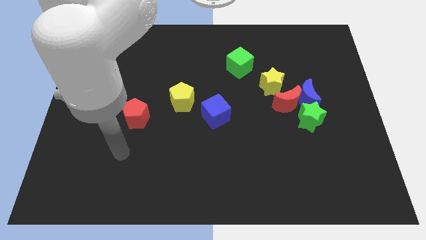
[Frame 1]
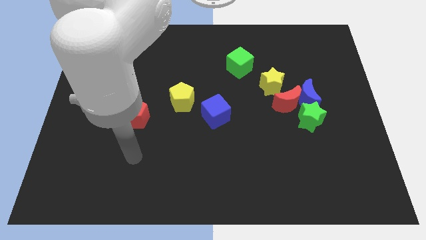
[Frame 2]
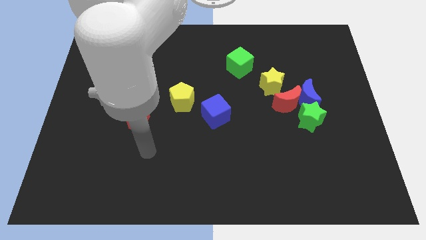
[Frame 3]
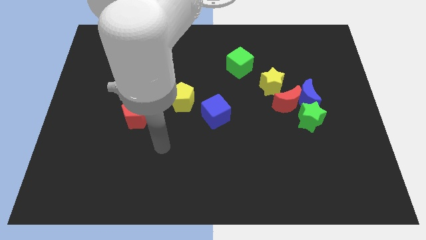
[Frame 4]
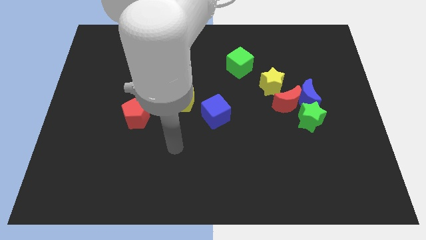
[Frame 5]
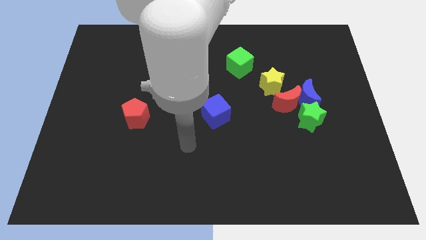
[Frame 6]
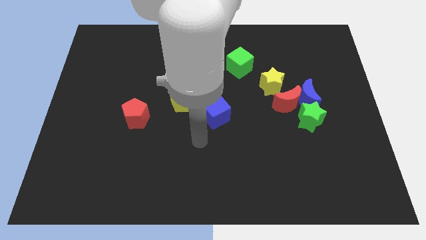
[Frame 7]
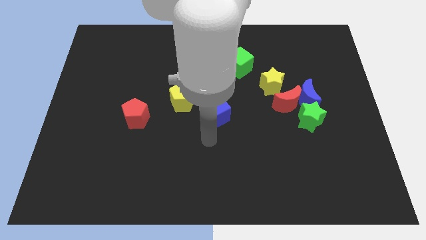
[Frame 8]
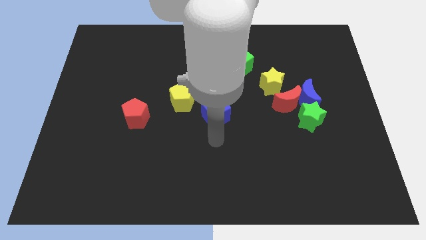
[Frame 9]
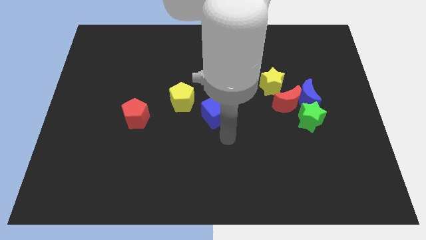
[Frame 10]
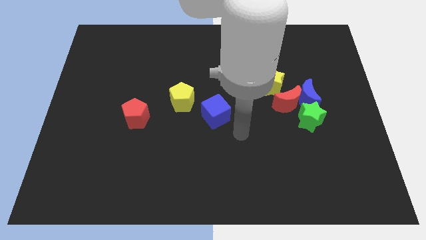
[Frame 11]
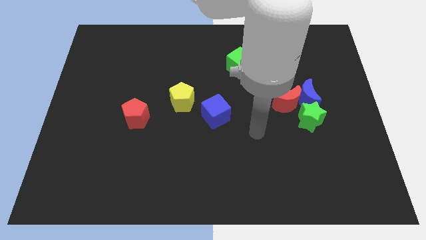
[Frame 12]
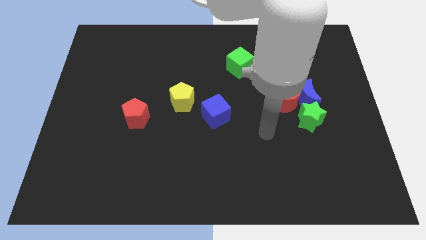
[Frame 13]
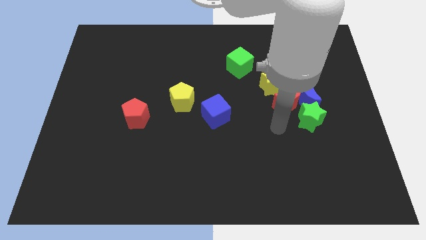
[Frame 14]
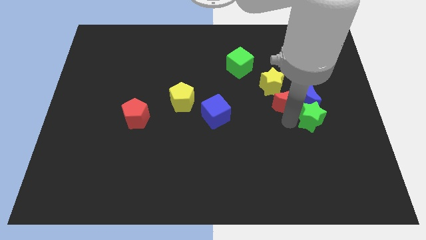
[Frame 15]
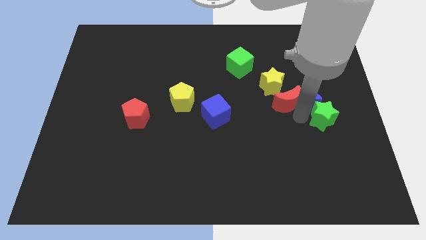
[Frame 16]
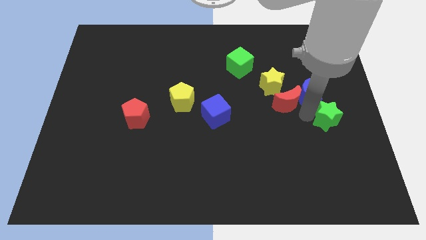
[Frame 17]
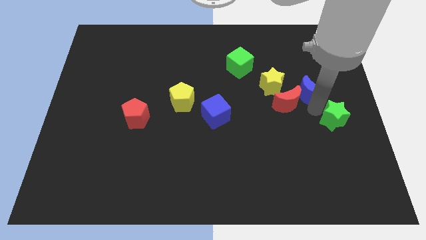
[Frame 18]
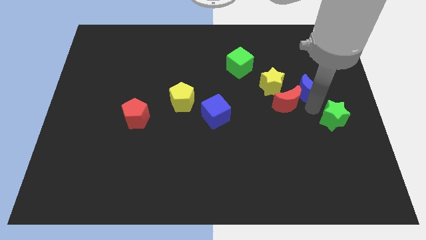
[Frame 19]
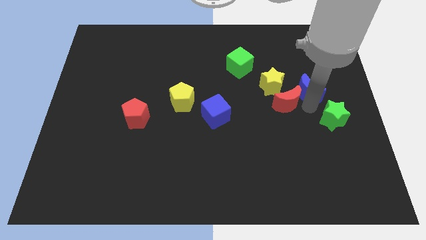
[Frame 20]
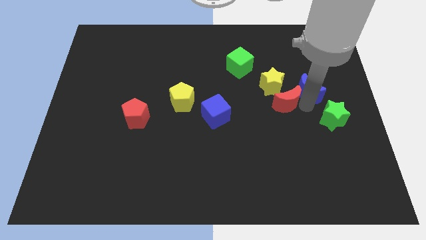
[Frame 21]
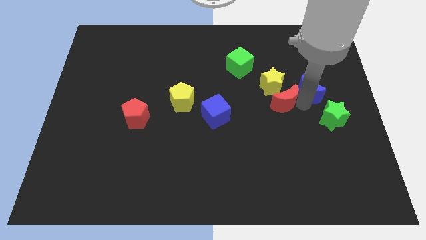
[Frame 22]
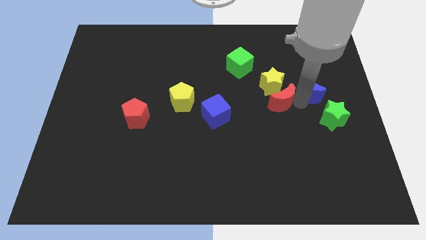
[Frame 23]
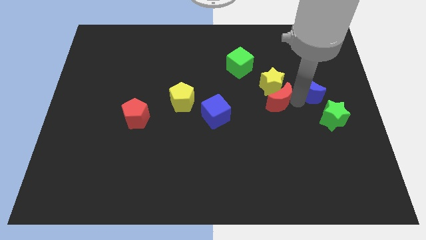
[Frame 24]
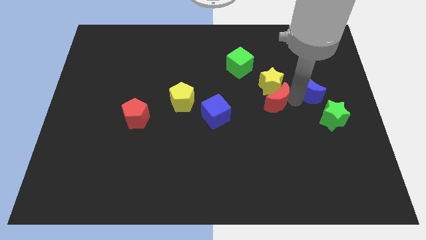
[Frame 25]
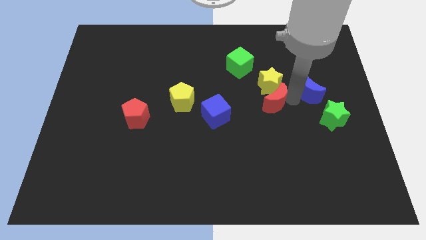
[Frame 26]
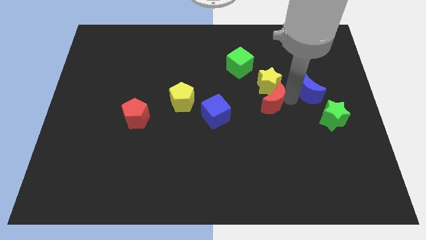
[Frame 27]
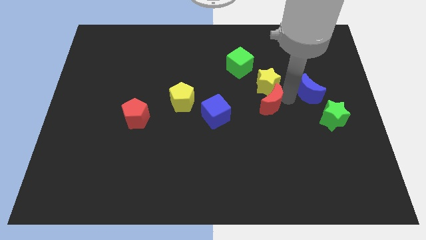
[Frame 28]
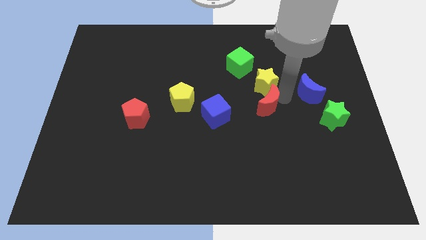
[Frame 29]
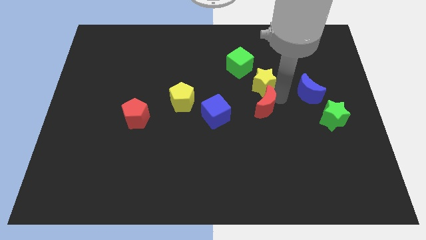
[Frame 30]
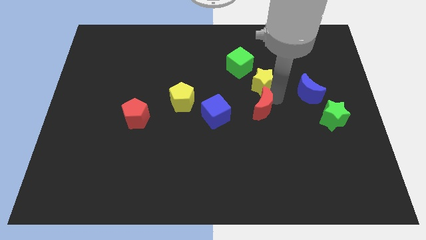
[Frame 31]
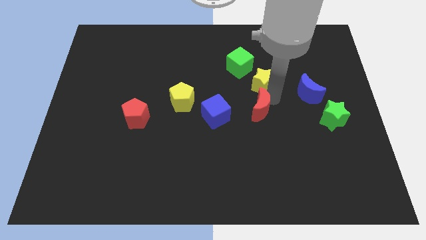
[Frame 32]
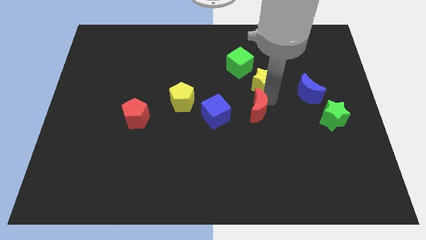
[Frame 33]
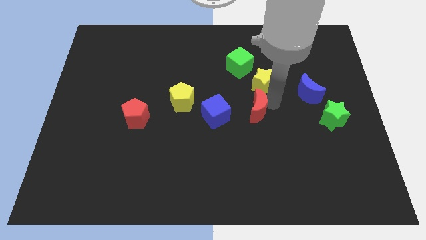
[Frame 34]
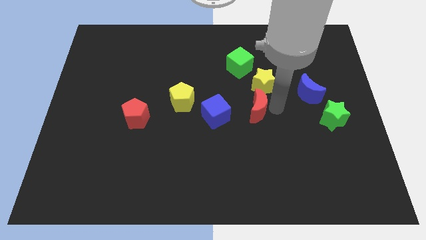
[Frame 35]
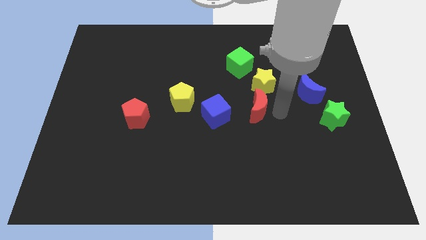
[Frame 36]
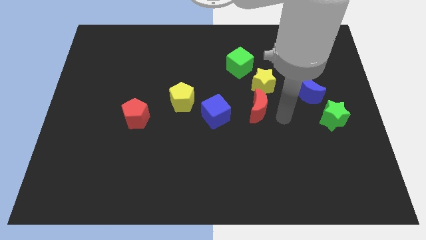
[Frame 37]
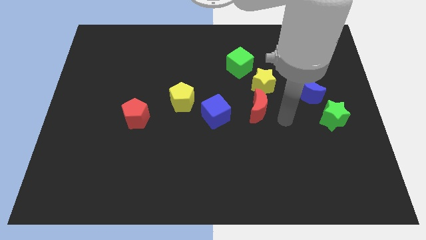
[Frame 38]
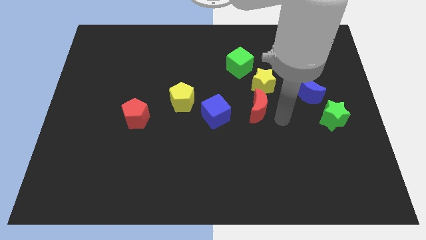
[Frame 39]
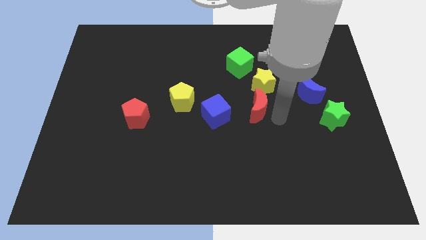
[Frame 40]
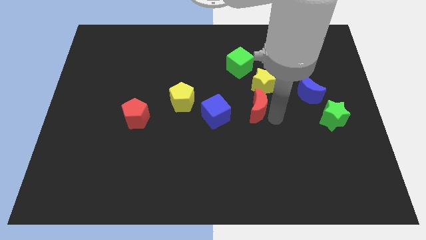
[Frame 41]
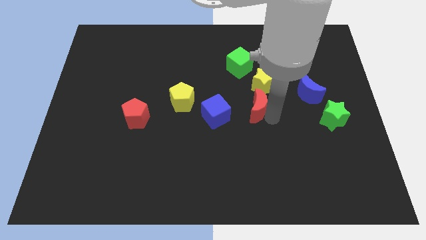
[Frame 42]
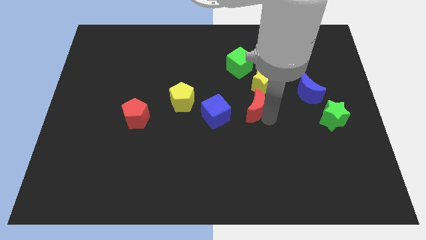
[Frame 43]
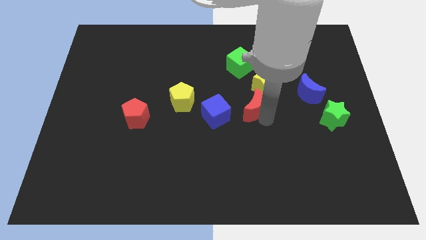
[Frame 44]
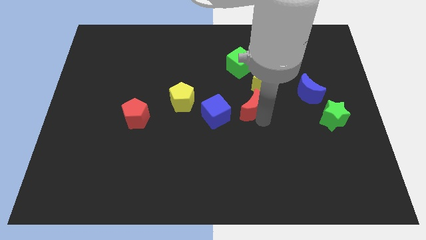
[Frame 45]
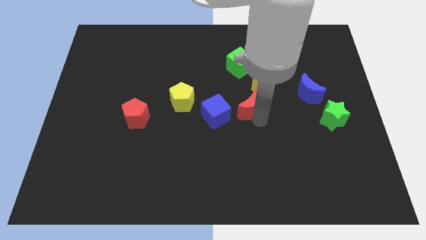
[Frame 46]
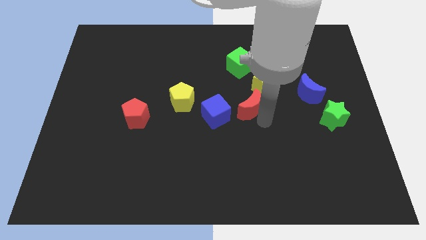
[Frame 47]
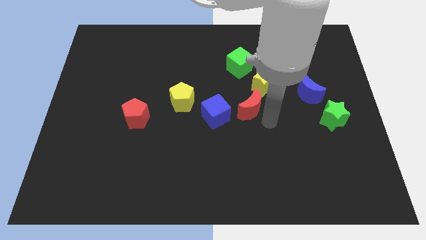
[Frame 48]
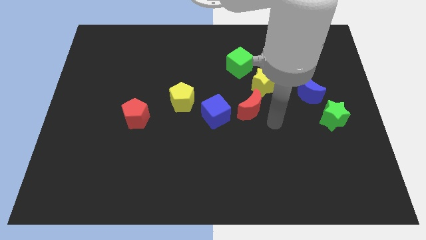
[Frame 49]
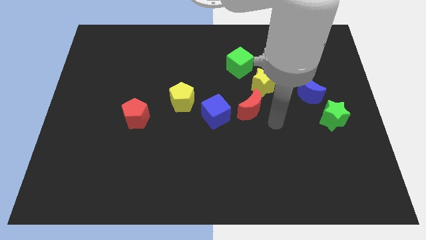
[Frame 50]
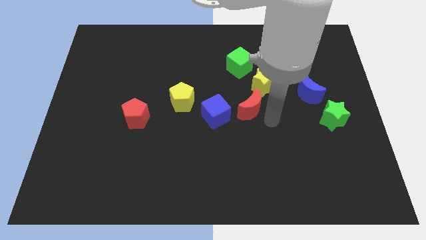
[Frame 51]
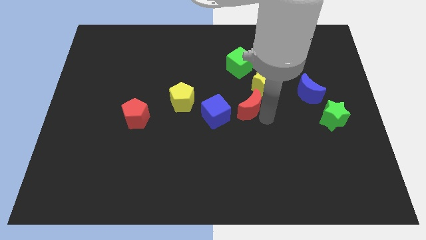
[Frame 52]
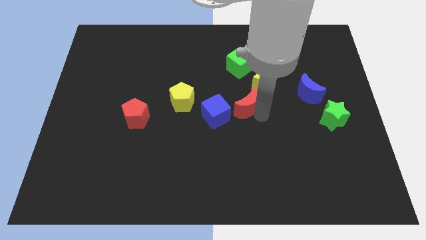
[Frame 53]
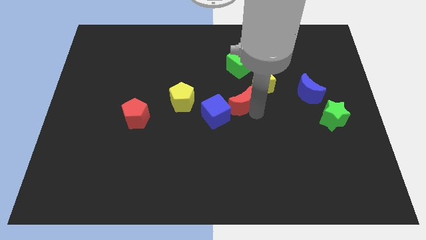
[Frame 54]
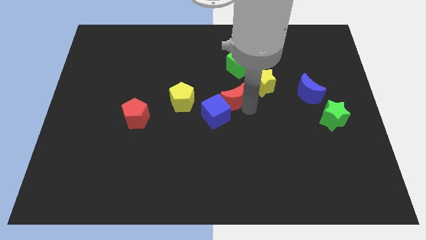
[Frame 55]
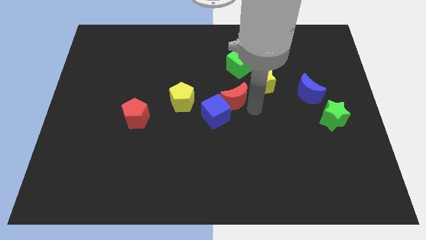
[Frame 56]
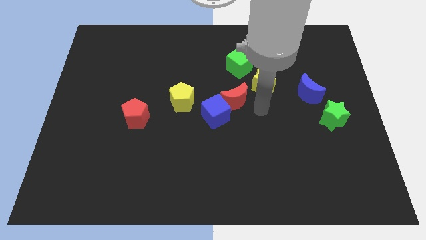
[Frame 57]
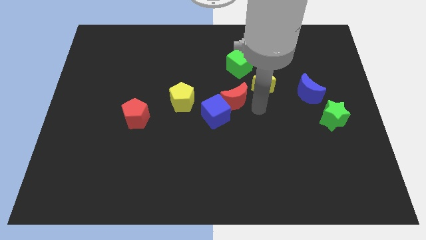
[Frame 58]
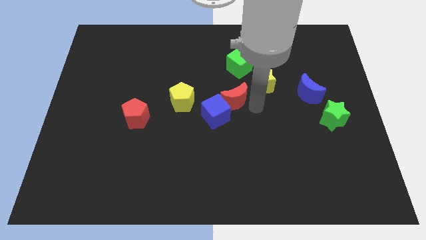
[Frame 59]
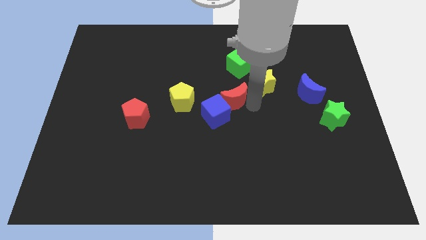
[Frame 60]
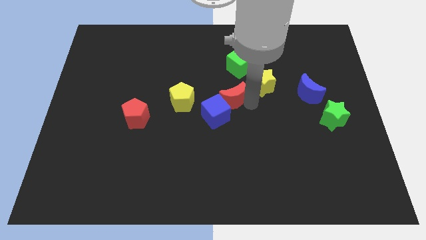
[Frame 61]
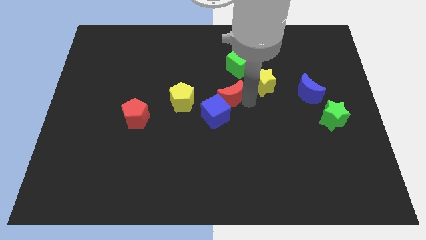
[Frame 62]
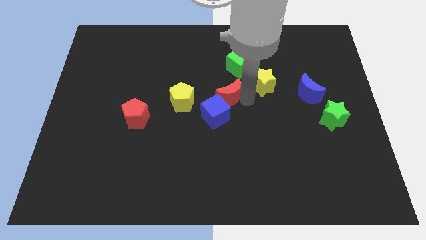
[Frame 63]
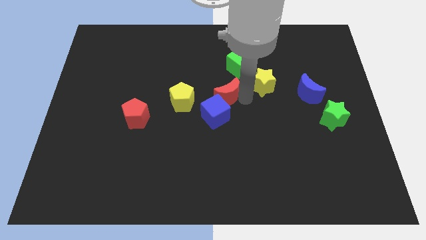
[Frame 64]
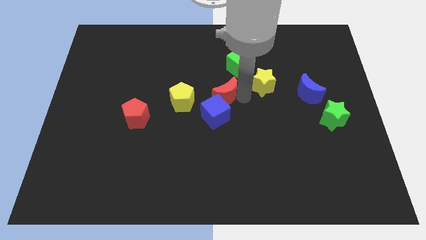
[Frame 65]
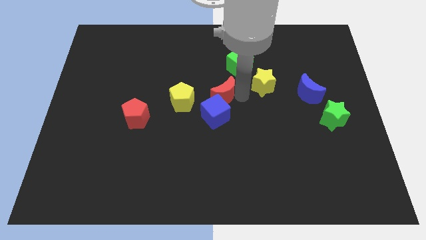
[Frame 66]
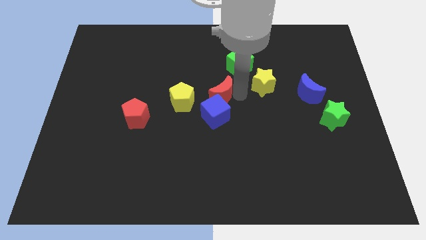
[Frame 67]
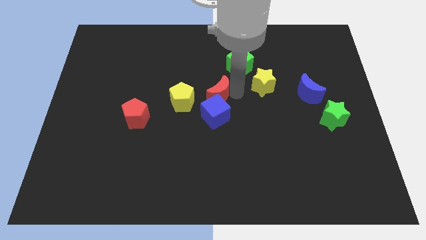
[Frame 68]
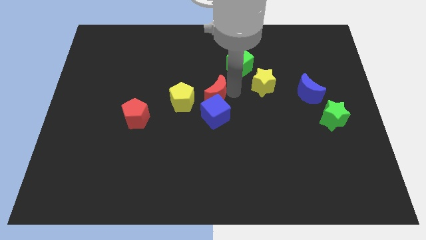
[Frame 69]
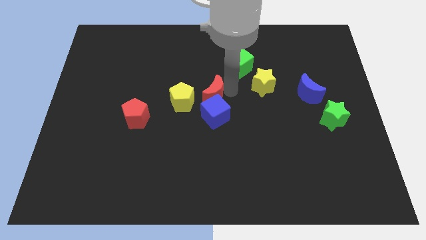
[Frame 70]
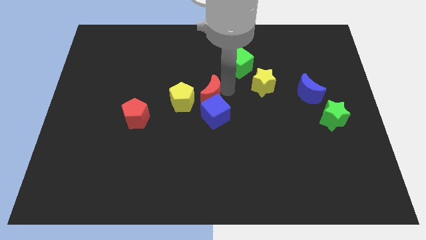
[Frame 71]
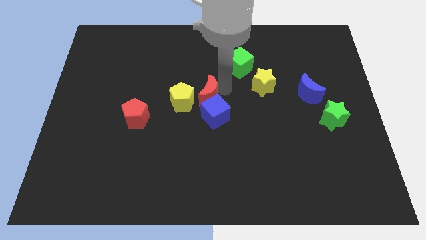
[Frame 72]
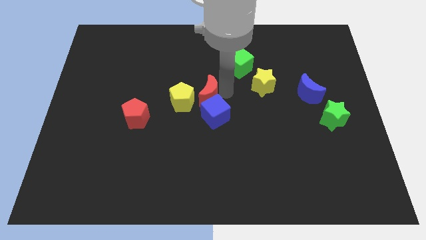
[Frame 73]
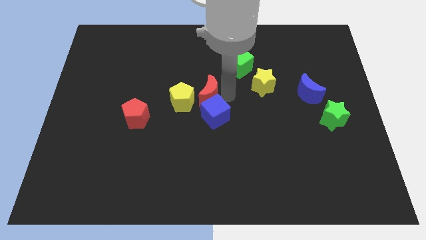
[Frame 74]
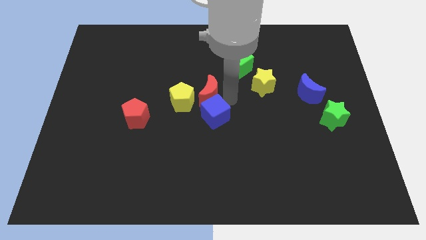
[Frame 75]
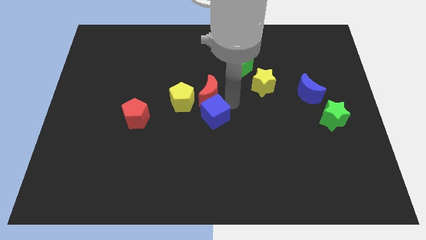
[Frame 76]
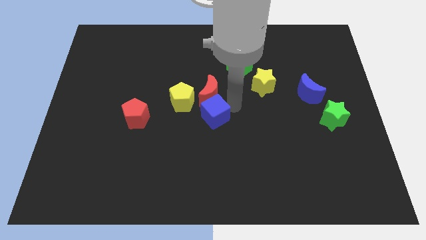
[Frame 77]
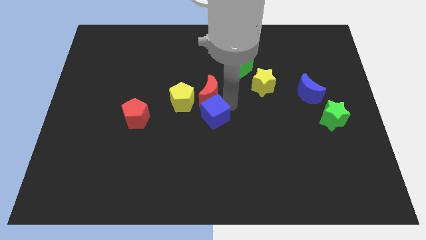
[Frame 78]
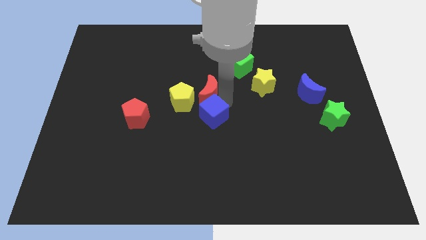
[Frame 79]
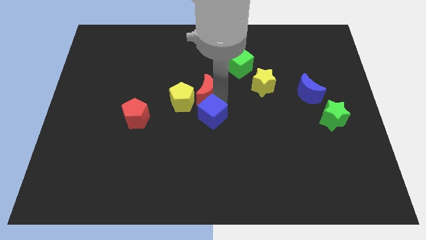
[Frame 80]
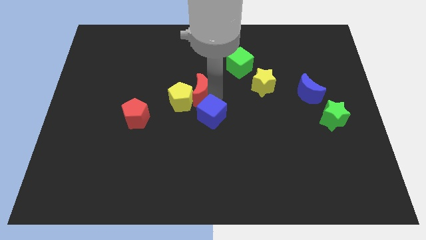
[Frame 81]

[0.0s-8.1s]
slide the red moon left
